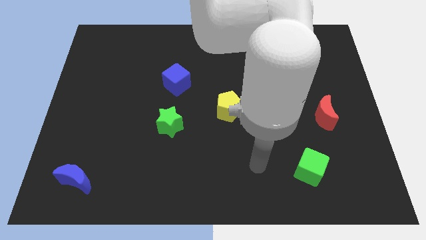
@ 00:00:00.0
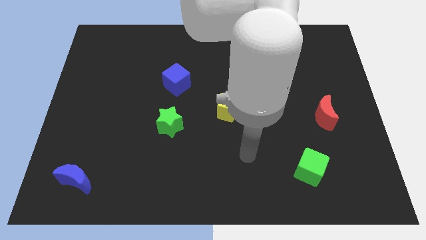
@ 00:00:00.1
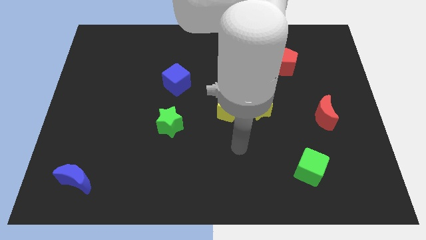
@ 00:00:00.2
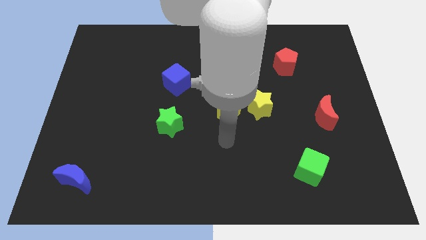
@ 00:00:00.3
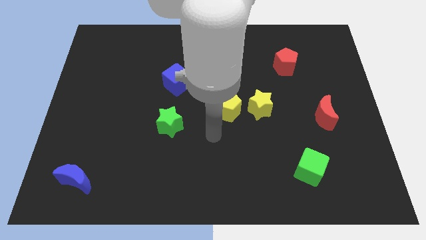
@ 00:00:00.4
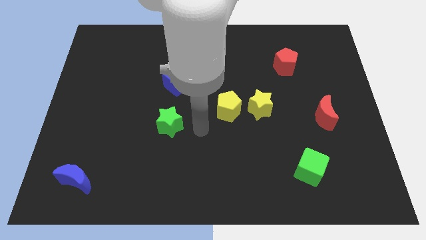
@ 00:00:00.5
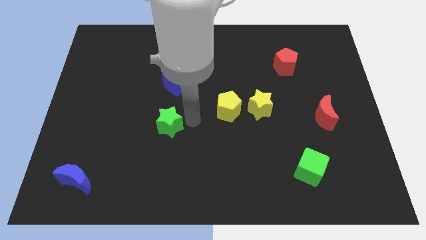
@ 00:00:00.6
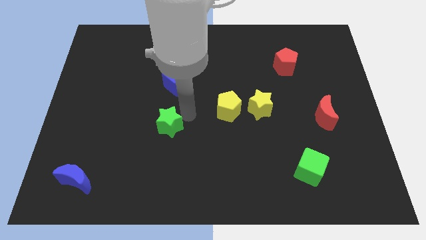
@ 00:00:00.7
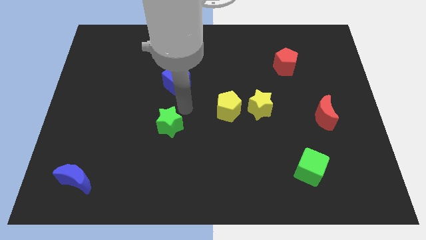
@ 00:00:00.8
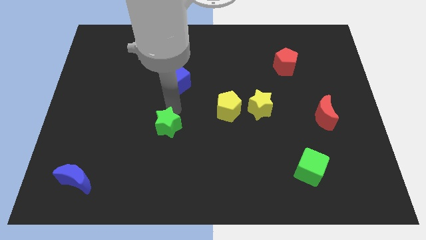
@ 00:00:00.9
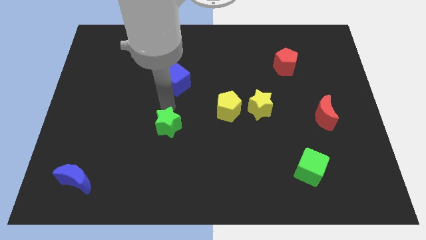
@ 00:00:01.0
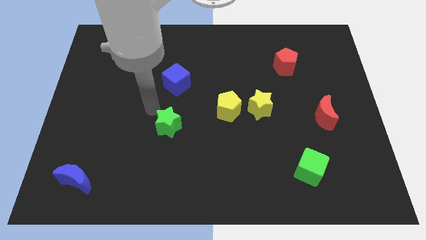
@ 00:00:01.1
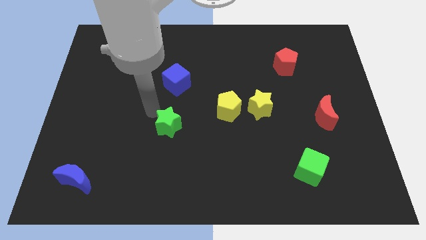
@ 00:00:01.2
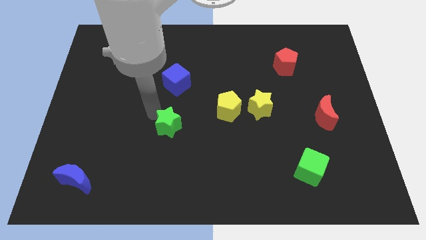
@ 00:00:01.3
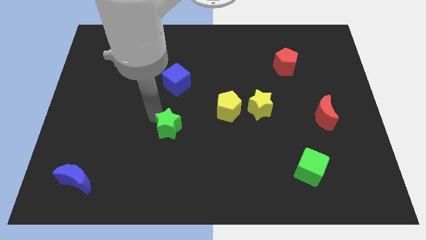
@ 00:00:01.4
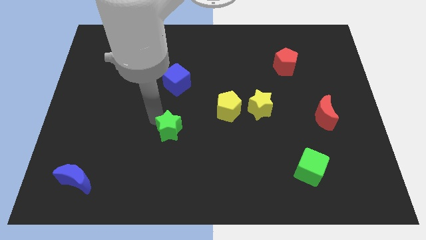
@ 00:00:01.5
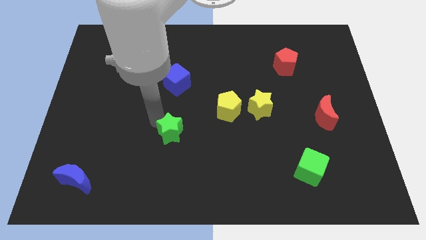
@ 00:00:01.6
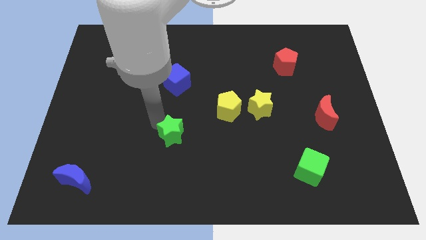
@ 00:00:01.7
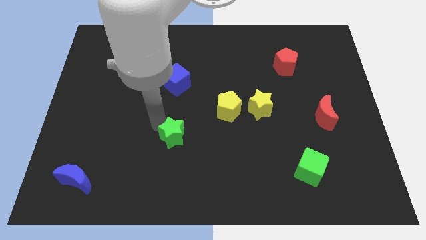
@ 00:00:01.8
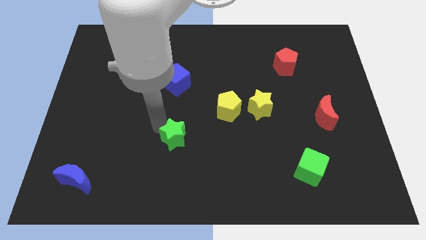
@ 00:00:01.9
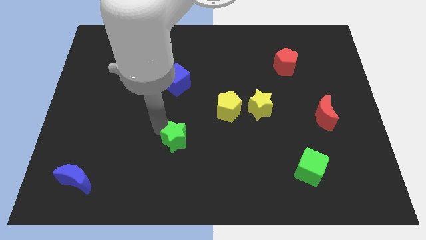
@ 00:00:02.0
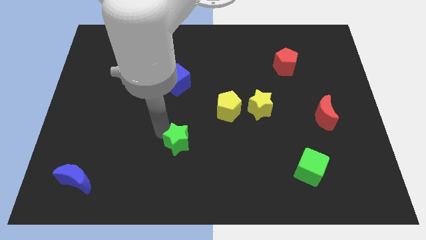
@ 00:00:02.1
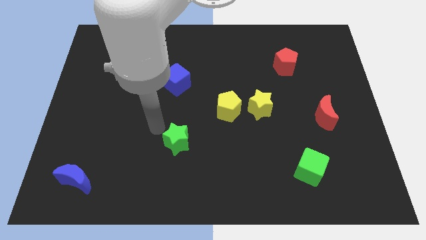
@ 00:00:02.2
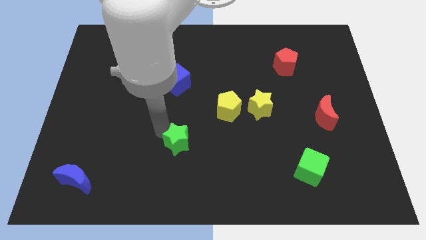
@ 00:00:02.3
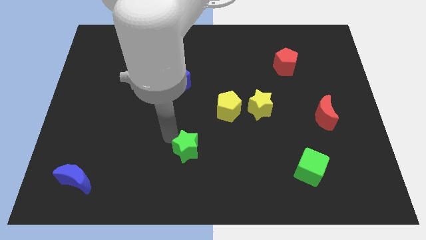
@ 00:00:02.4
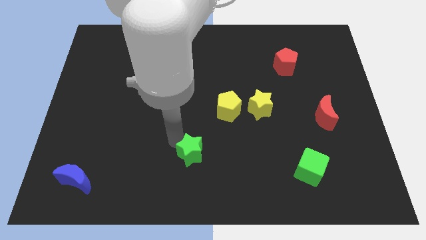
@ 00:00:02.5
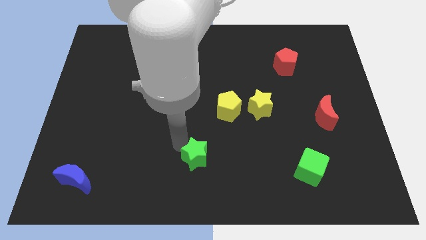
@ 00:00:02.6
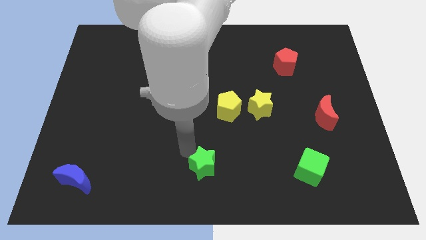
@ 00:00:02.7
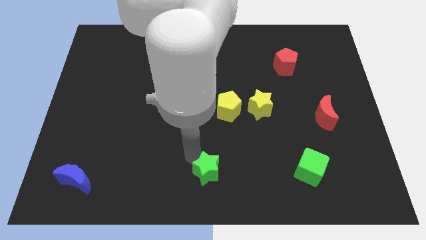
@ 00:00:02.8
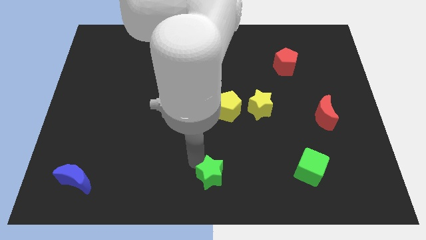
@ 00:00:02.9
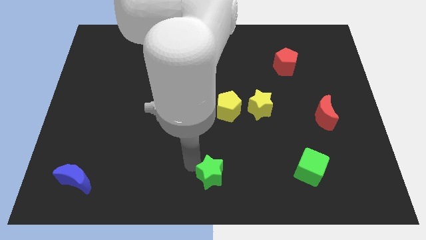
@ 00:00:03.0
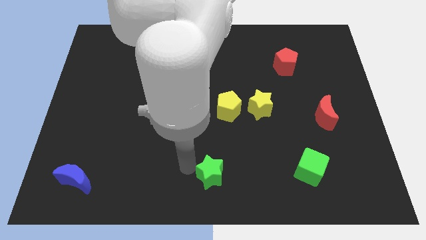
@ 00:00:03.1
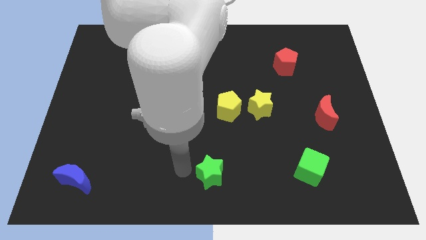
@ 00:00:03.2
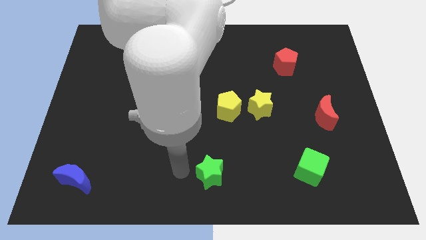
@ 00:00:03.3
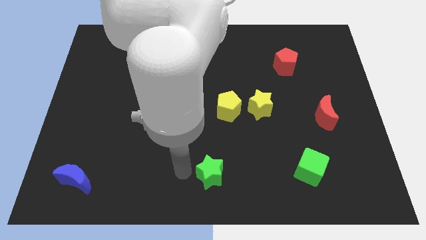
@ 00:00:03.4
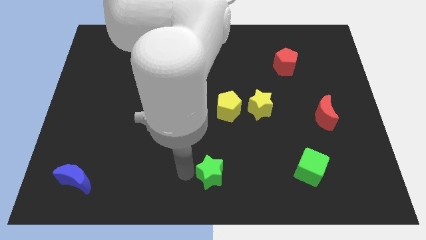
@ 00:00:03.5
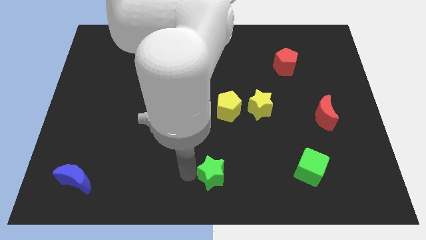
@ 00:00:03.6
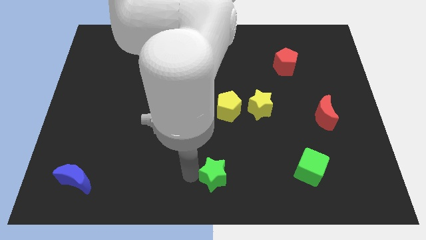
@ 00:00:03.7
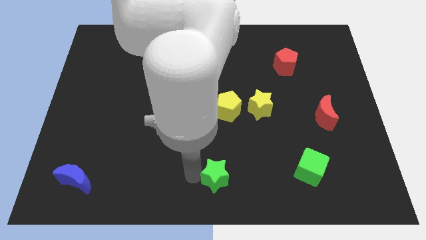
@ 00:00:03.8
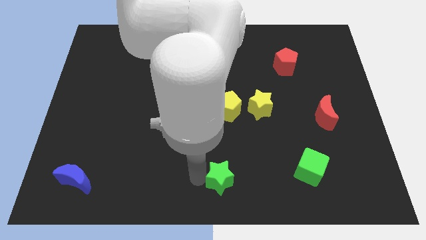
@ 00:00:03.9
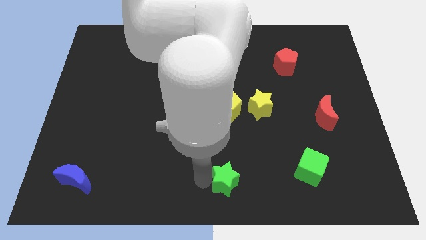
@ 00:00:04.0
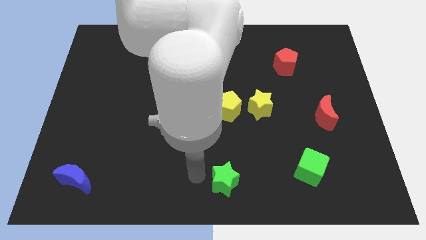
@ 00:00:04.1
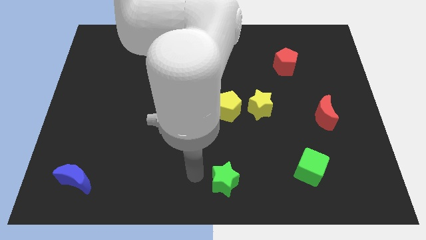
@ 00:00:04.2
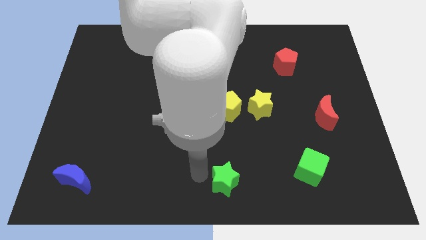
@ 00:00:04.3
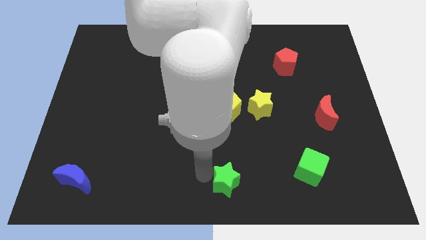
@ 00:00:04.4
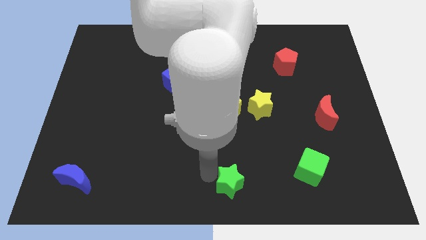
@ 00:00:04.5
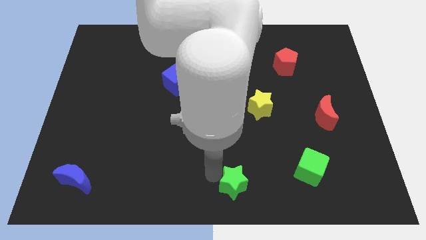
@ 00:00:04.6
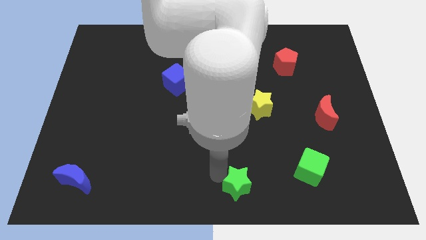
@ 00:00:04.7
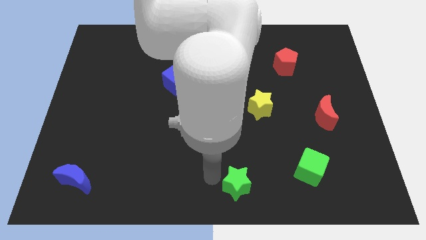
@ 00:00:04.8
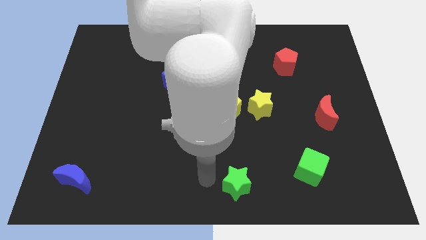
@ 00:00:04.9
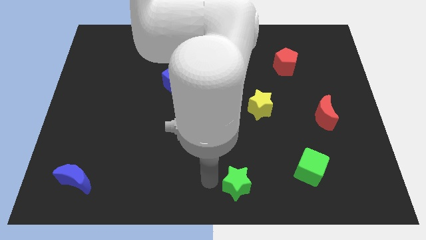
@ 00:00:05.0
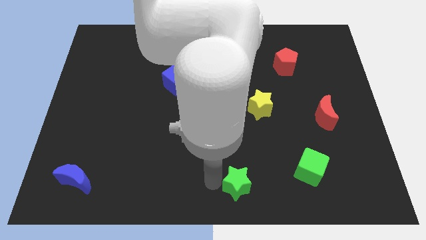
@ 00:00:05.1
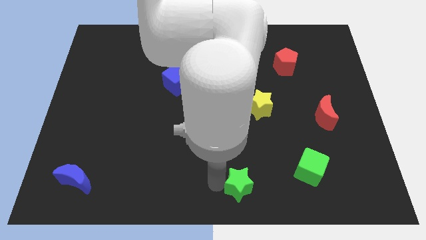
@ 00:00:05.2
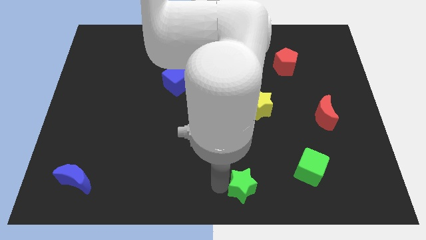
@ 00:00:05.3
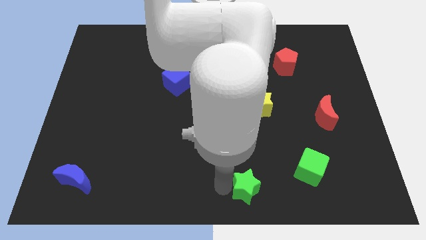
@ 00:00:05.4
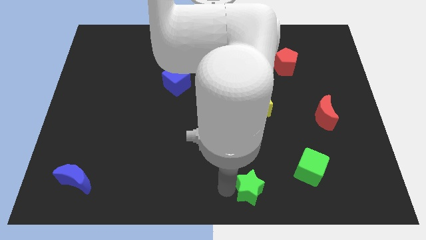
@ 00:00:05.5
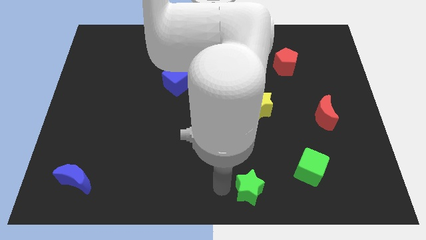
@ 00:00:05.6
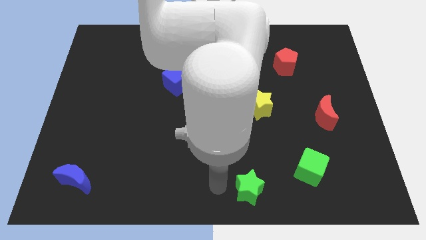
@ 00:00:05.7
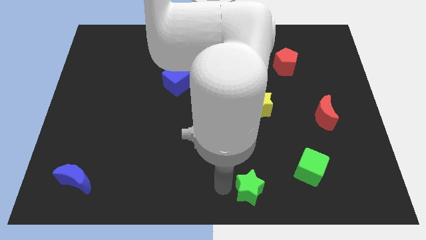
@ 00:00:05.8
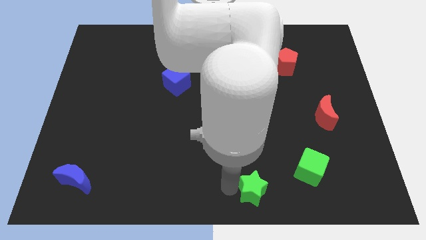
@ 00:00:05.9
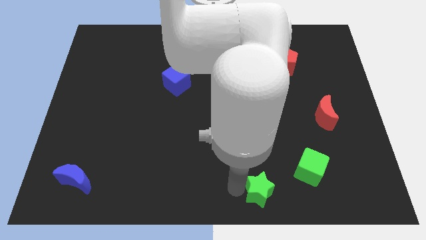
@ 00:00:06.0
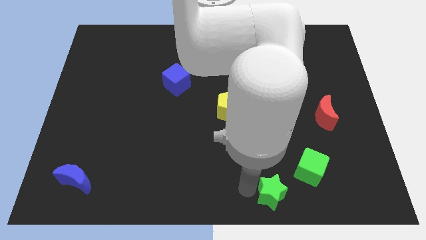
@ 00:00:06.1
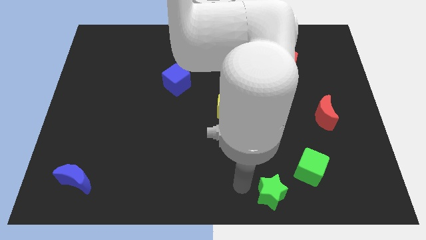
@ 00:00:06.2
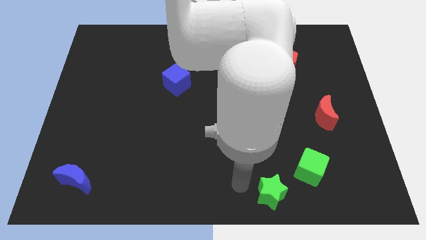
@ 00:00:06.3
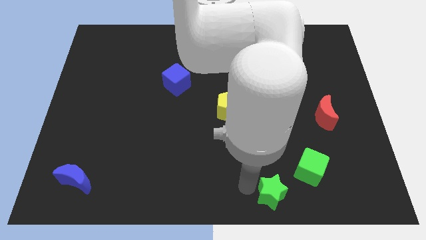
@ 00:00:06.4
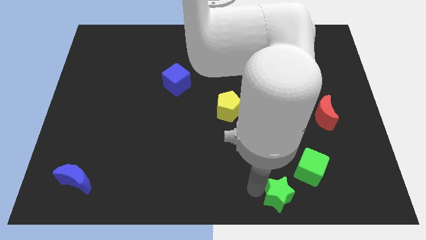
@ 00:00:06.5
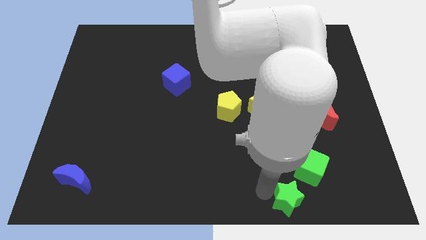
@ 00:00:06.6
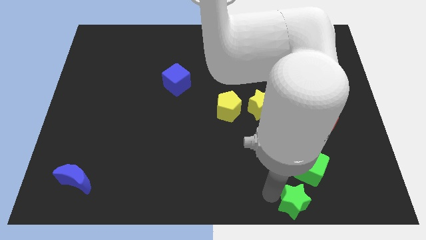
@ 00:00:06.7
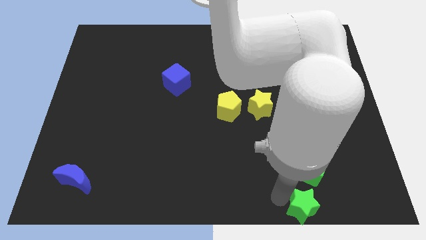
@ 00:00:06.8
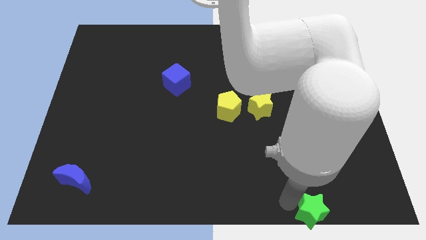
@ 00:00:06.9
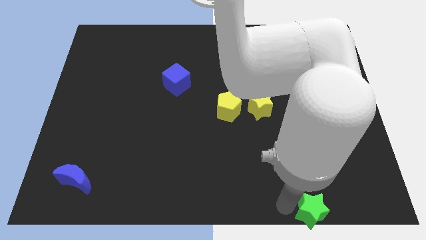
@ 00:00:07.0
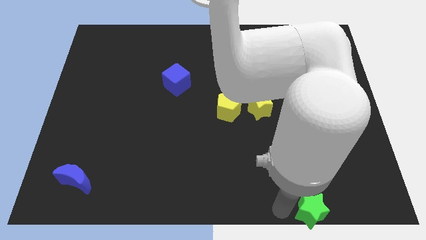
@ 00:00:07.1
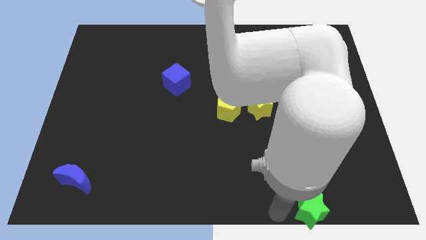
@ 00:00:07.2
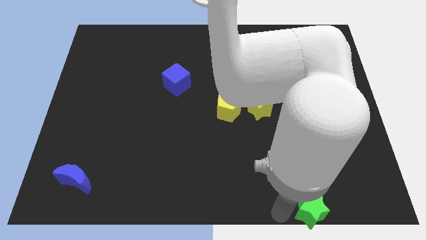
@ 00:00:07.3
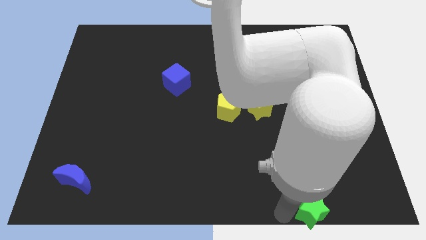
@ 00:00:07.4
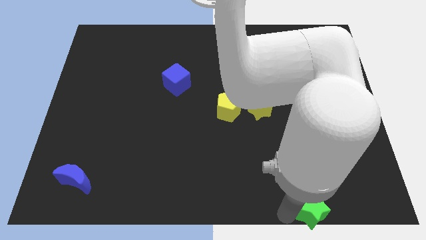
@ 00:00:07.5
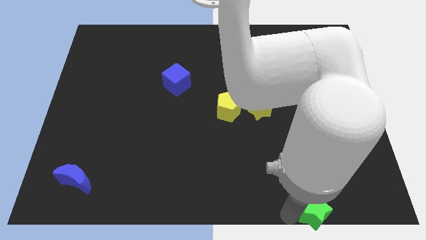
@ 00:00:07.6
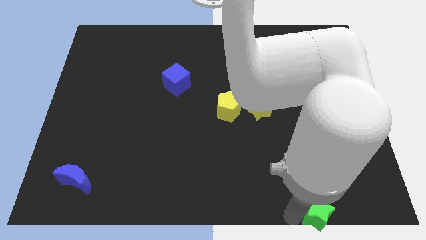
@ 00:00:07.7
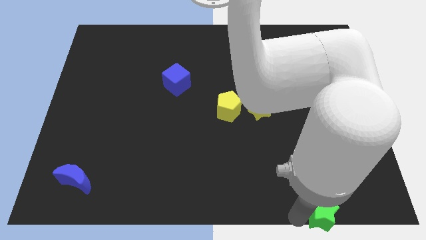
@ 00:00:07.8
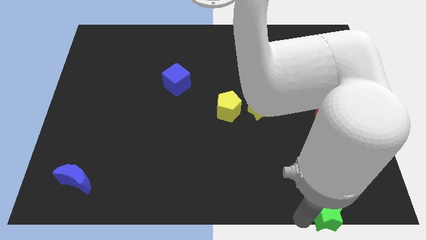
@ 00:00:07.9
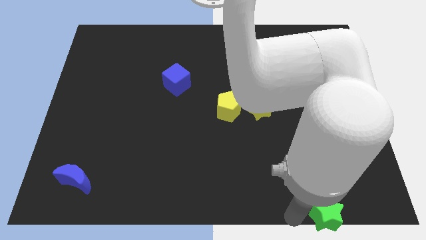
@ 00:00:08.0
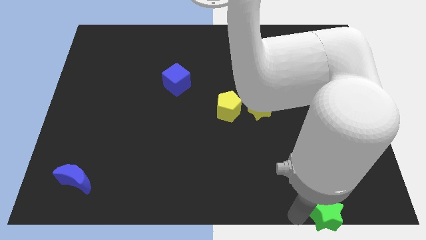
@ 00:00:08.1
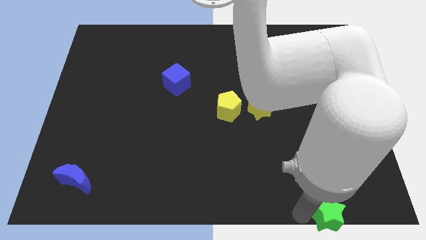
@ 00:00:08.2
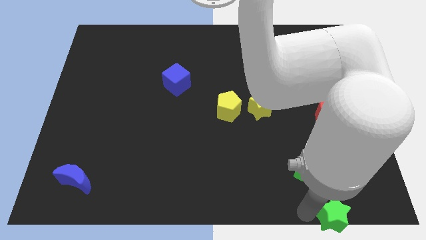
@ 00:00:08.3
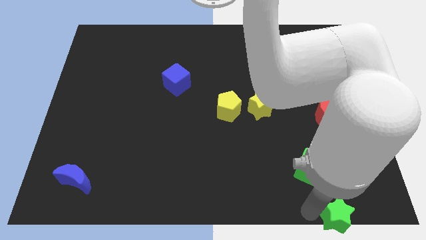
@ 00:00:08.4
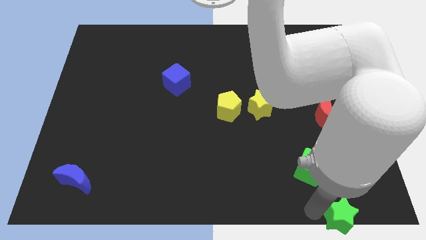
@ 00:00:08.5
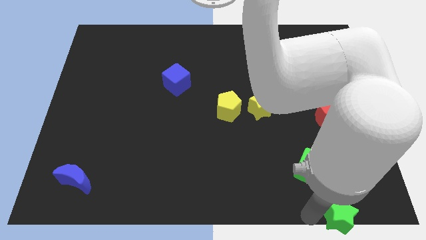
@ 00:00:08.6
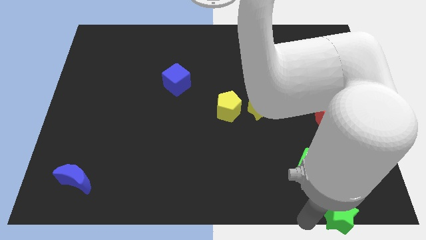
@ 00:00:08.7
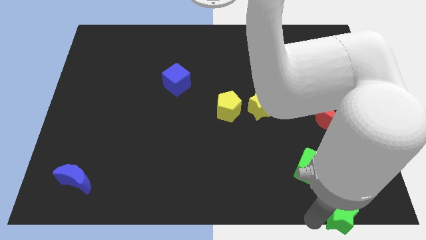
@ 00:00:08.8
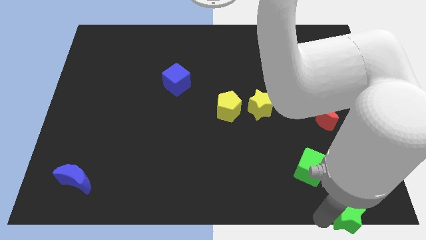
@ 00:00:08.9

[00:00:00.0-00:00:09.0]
push the green star to the bottom right of the board
